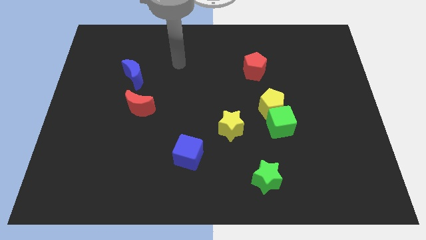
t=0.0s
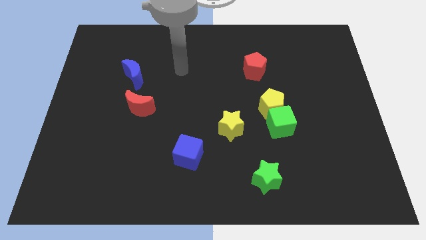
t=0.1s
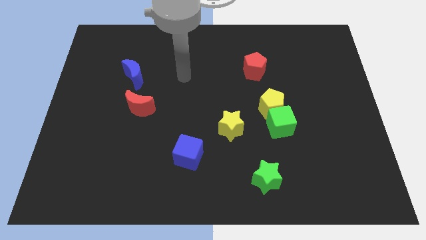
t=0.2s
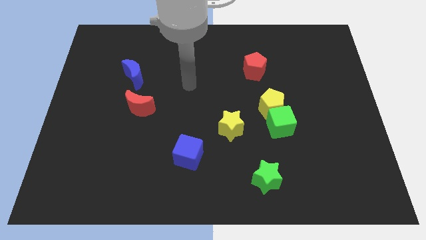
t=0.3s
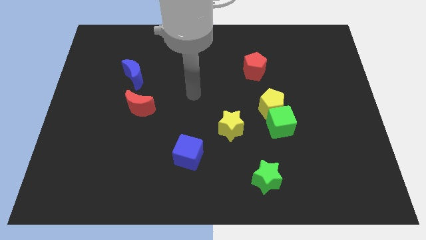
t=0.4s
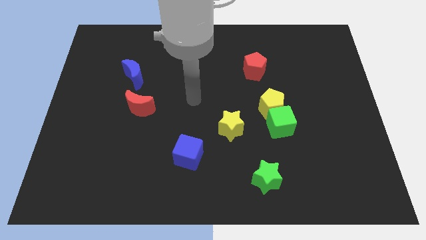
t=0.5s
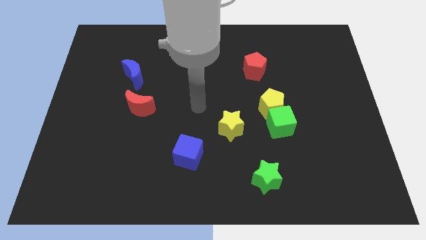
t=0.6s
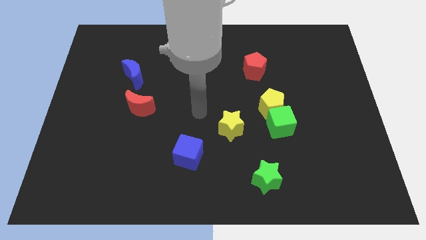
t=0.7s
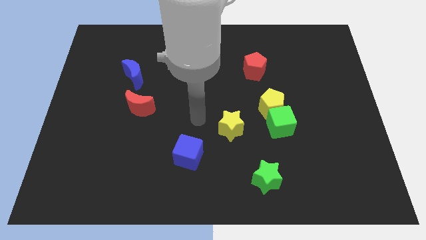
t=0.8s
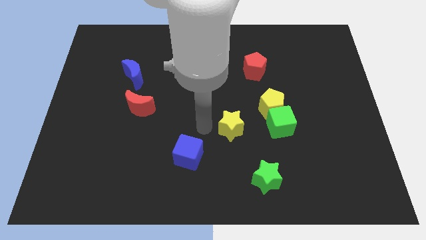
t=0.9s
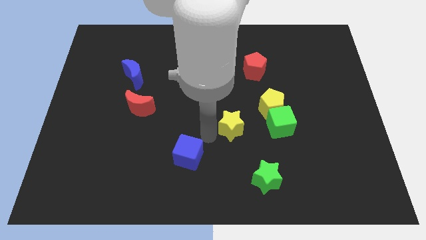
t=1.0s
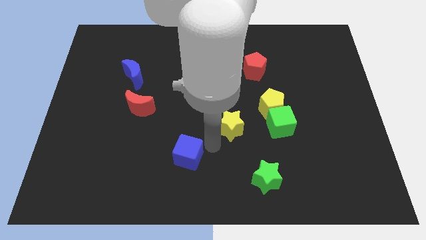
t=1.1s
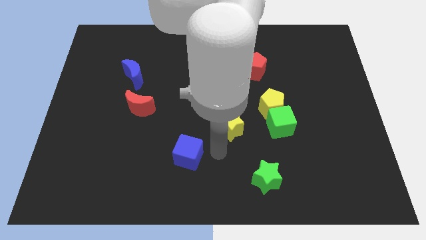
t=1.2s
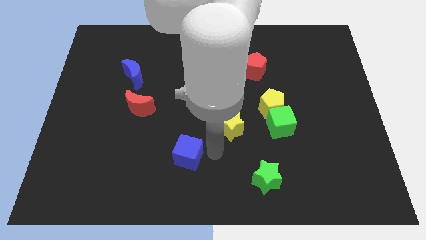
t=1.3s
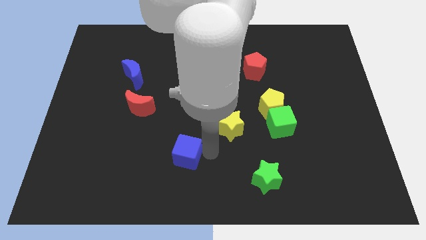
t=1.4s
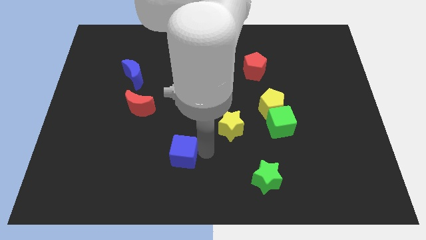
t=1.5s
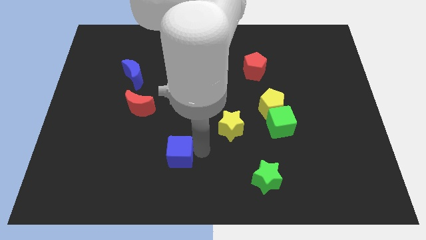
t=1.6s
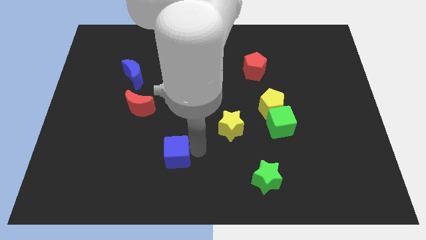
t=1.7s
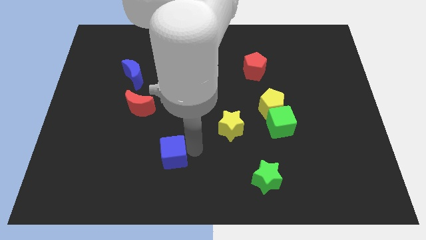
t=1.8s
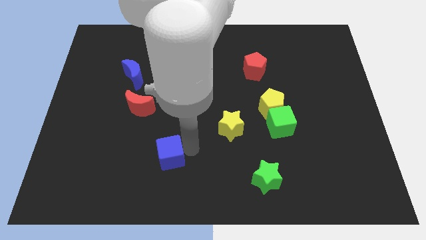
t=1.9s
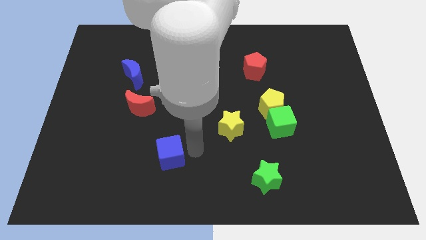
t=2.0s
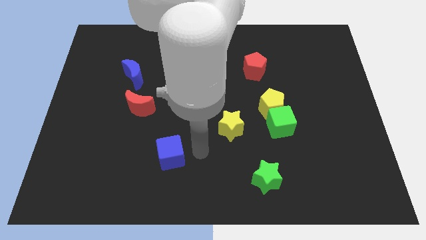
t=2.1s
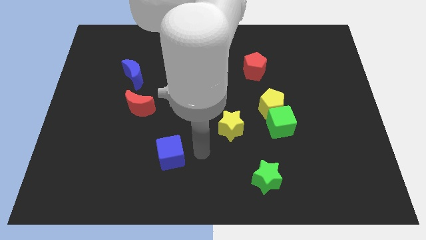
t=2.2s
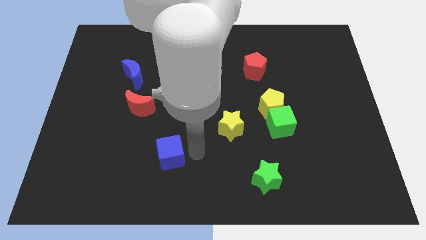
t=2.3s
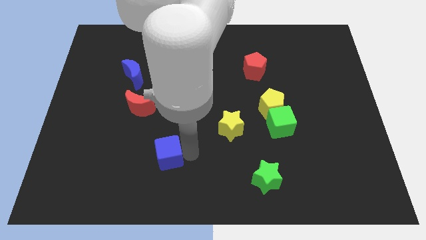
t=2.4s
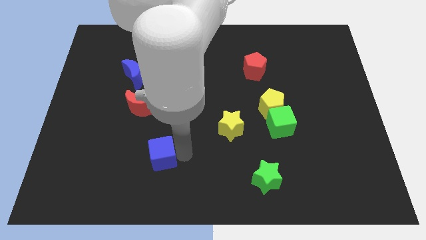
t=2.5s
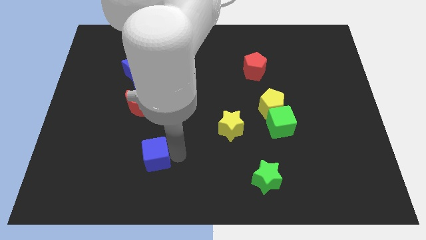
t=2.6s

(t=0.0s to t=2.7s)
slightly push the blue cube to the left

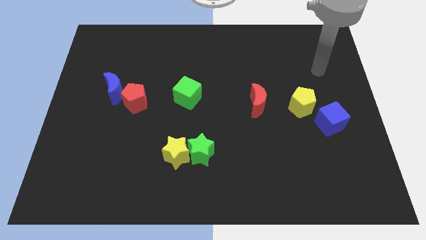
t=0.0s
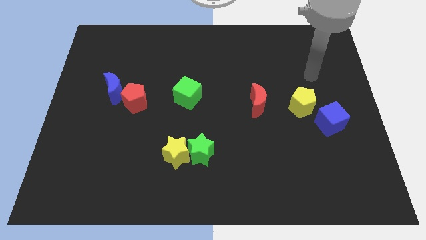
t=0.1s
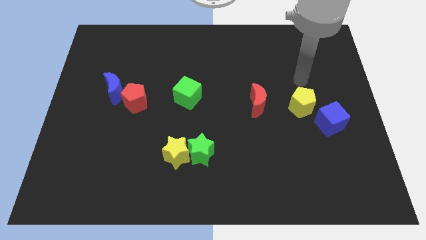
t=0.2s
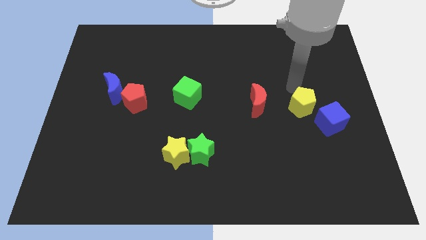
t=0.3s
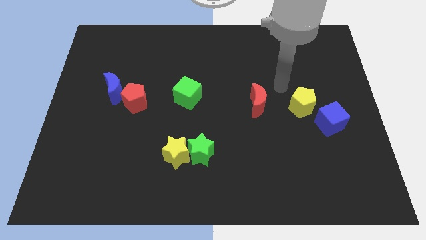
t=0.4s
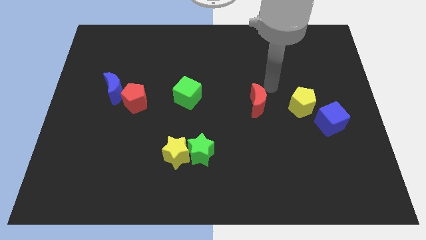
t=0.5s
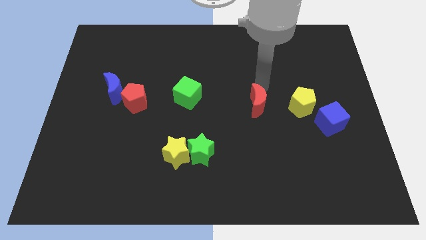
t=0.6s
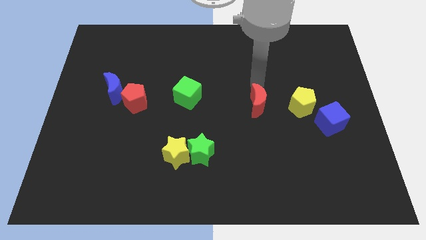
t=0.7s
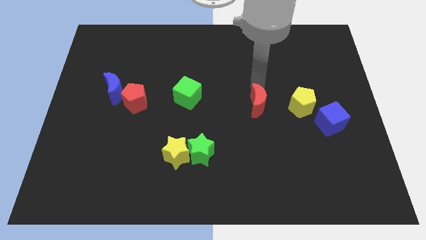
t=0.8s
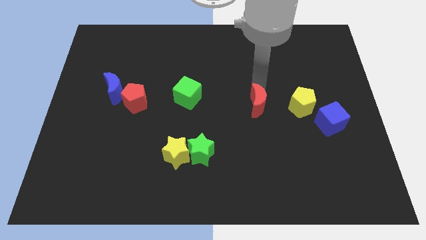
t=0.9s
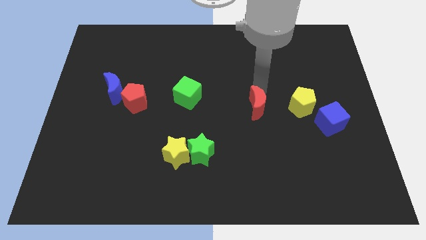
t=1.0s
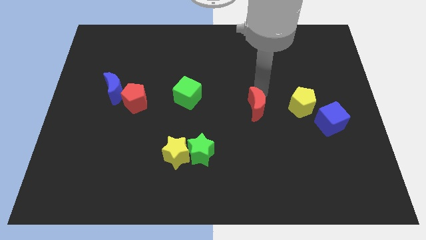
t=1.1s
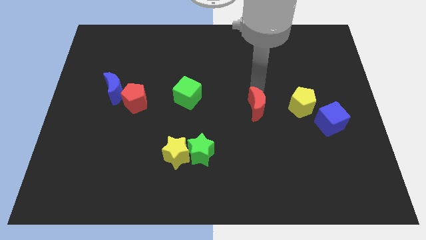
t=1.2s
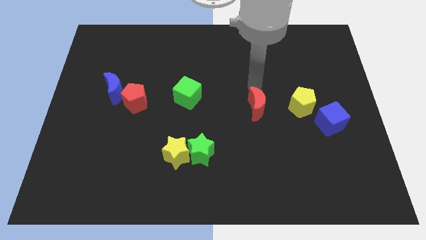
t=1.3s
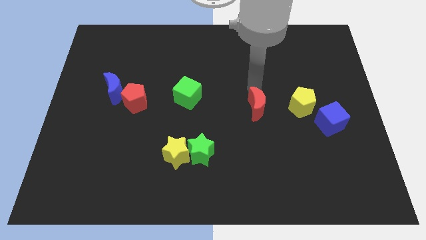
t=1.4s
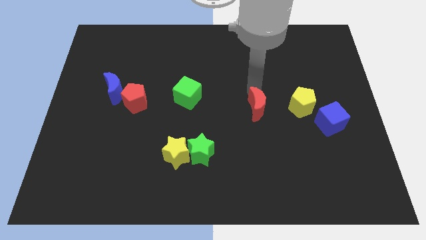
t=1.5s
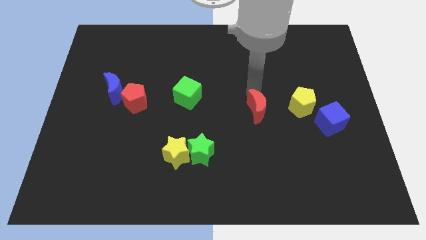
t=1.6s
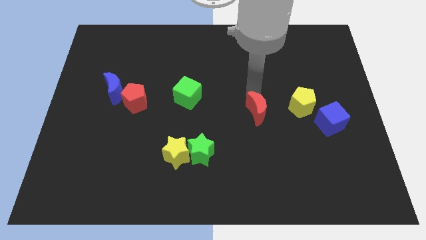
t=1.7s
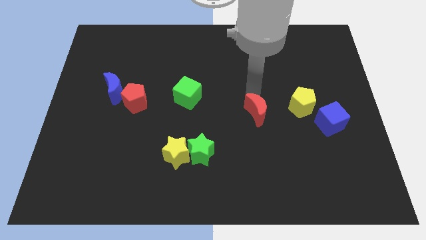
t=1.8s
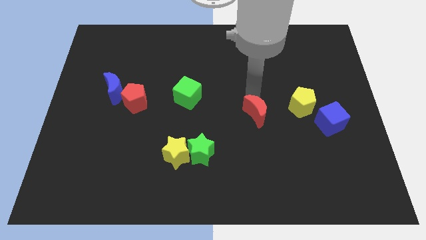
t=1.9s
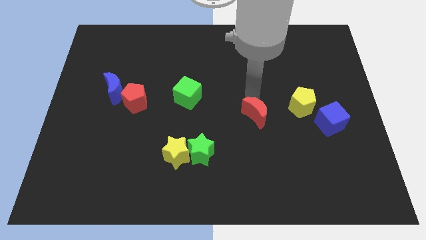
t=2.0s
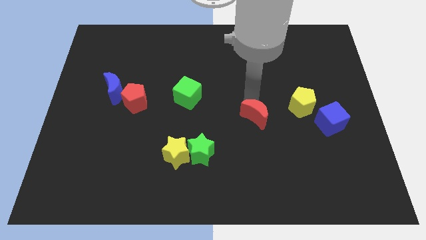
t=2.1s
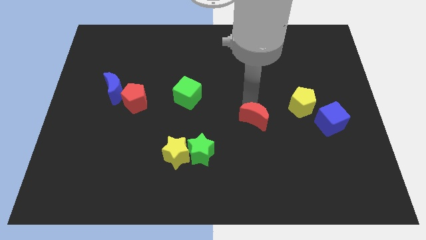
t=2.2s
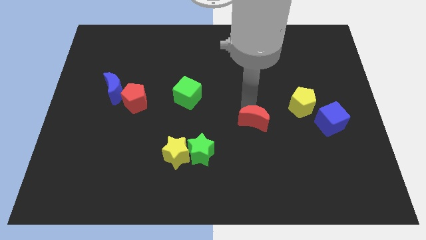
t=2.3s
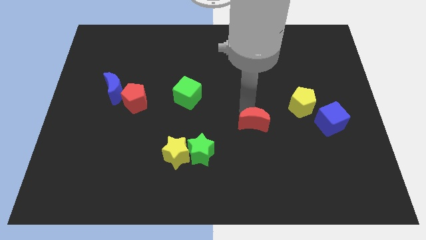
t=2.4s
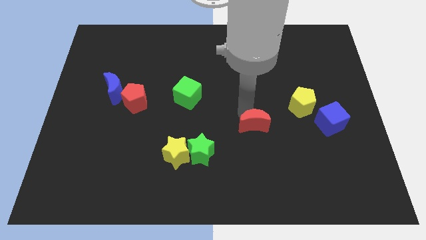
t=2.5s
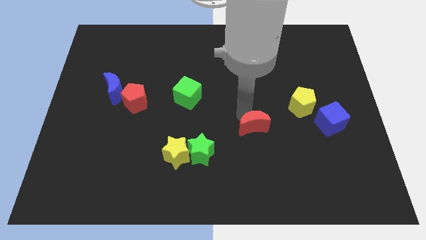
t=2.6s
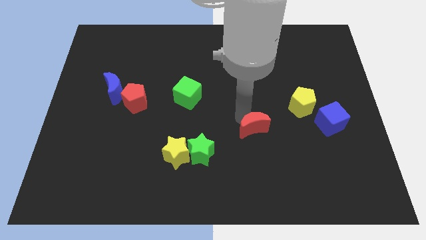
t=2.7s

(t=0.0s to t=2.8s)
slide the red moon downwards a little

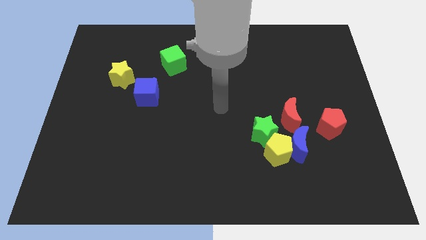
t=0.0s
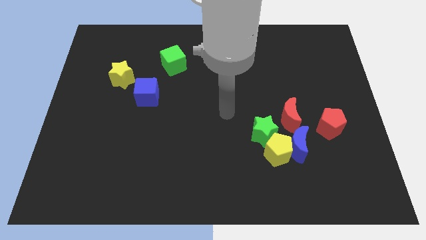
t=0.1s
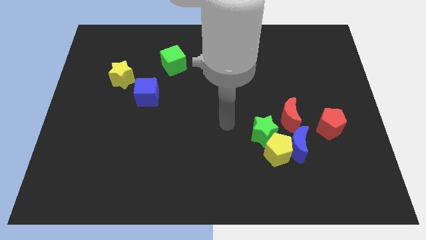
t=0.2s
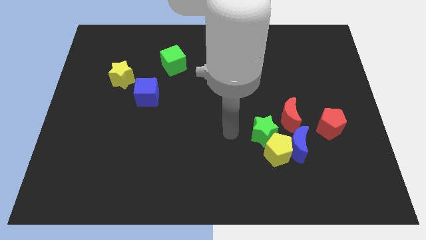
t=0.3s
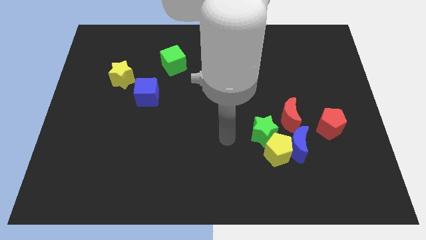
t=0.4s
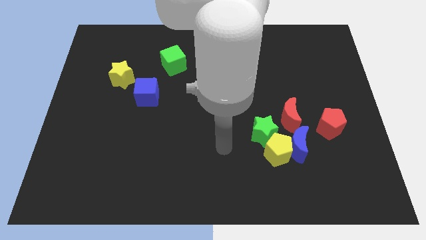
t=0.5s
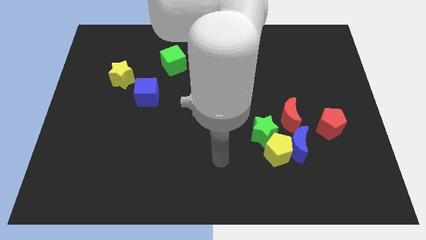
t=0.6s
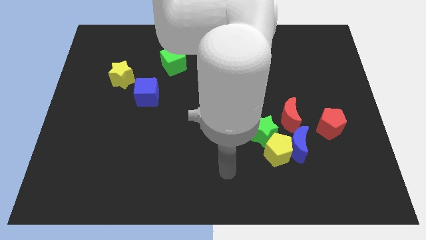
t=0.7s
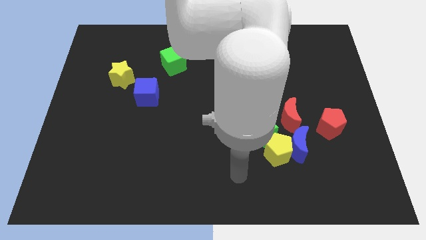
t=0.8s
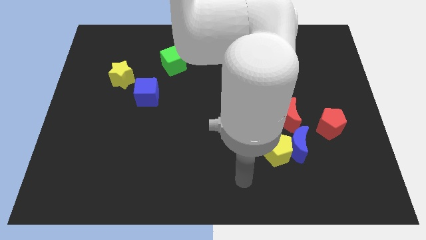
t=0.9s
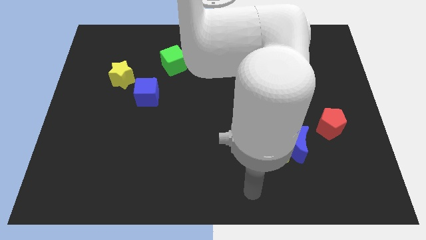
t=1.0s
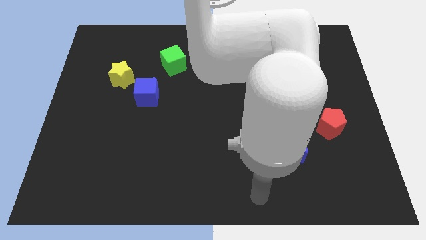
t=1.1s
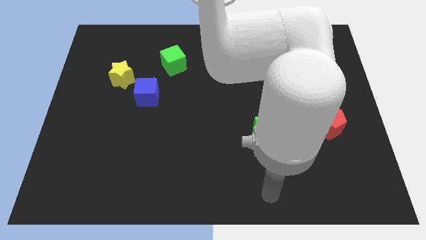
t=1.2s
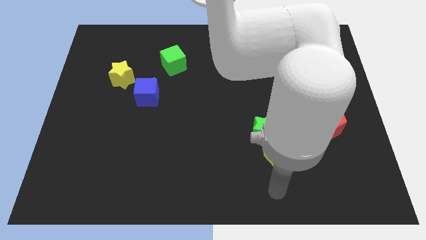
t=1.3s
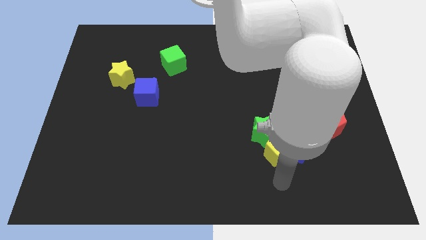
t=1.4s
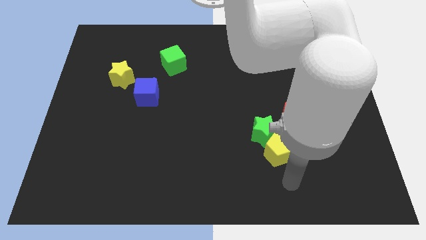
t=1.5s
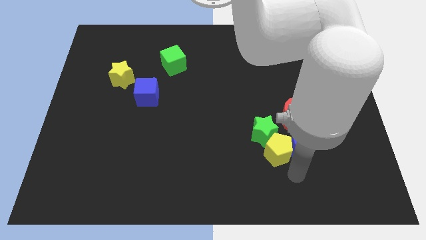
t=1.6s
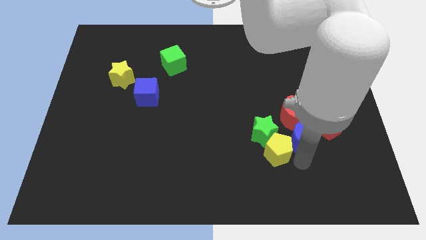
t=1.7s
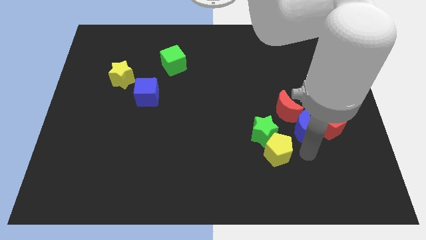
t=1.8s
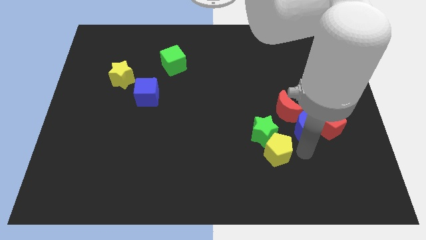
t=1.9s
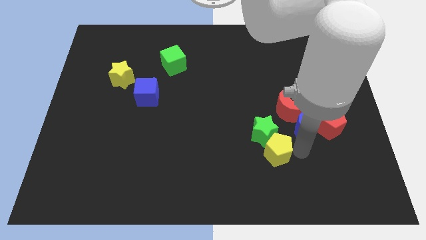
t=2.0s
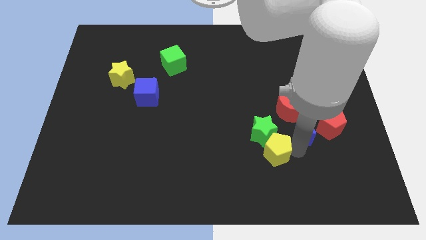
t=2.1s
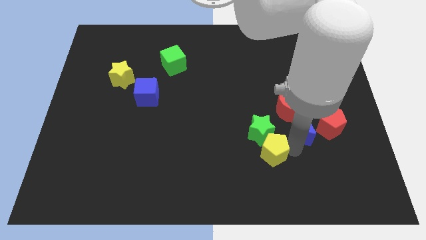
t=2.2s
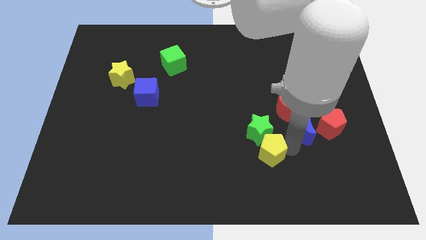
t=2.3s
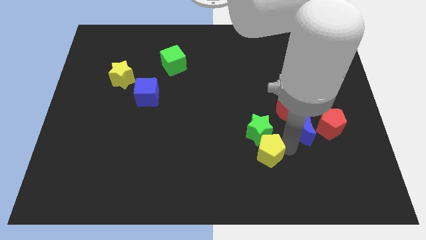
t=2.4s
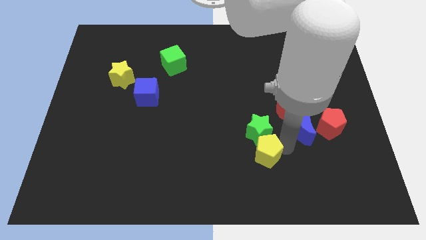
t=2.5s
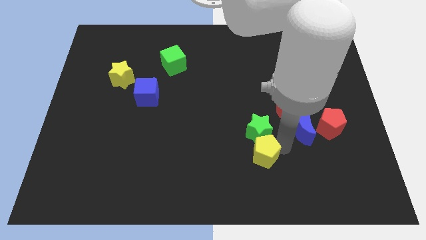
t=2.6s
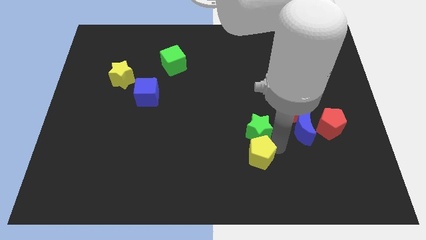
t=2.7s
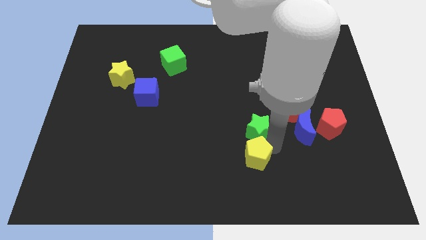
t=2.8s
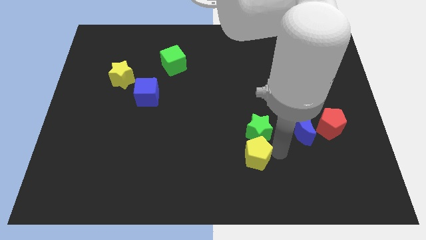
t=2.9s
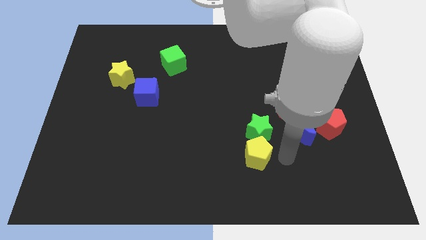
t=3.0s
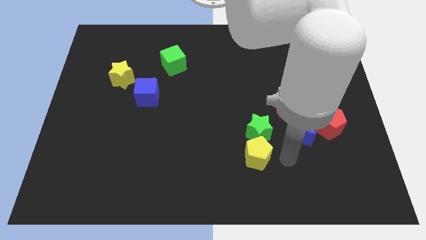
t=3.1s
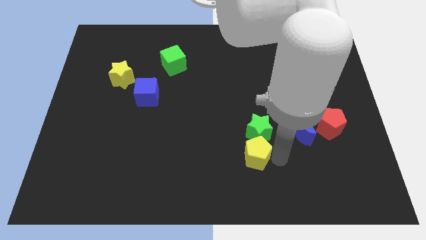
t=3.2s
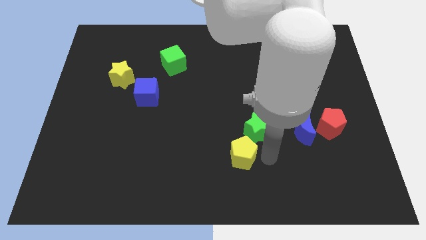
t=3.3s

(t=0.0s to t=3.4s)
slide the yellow pentagon left slightly
